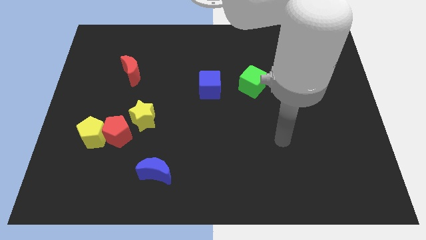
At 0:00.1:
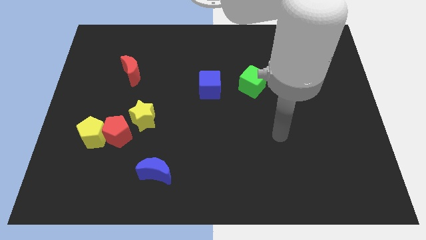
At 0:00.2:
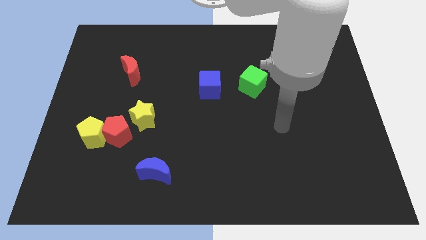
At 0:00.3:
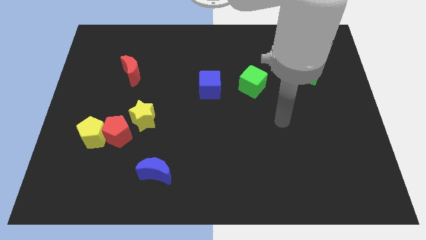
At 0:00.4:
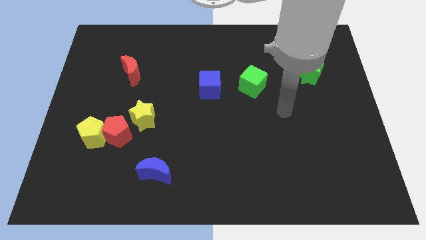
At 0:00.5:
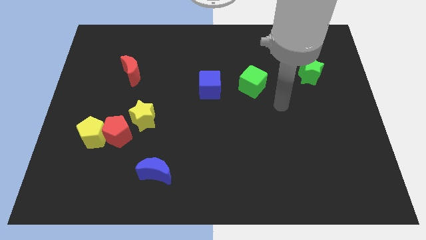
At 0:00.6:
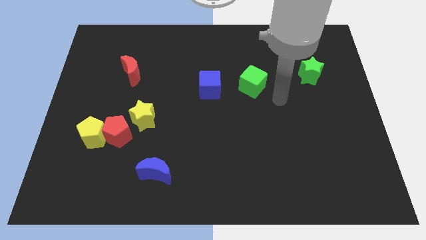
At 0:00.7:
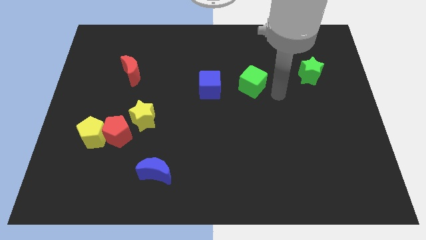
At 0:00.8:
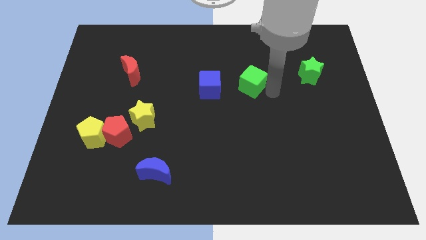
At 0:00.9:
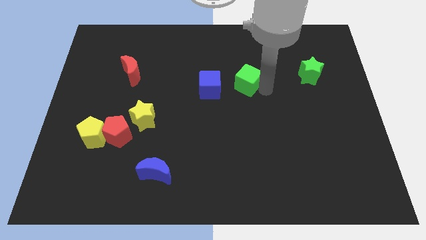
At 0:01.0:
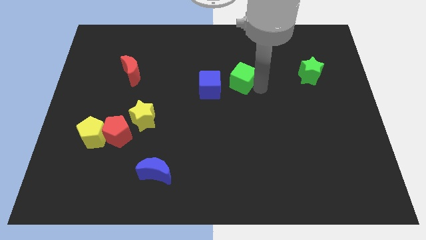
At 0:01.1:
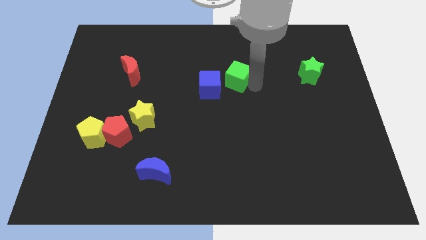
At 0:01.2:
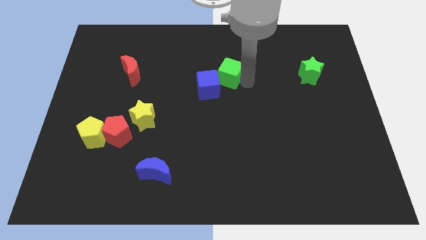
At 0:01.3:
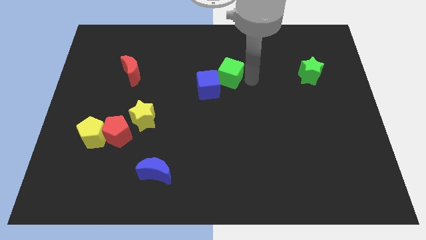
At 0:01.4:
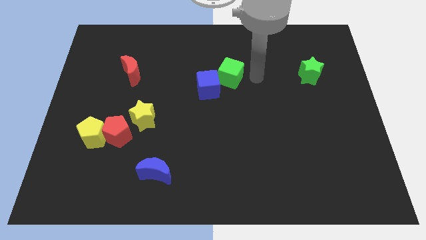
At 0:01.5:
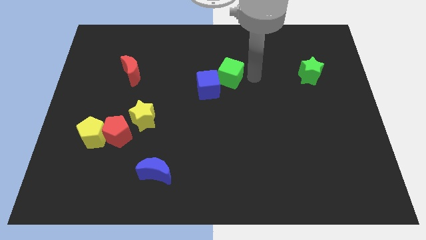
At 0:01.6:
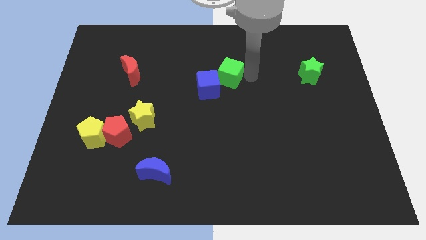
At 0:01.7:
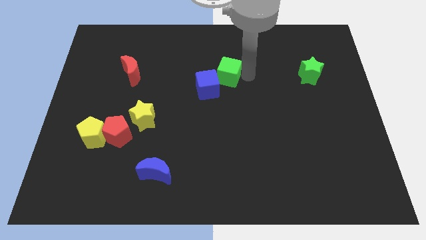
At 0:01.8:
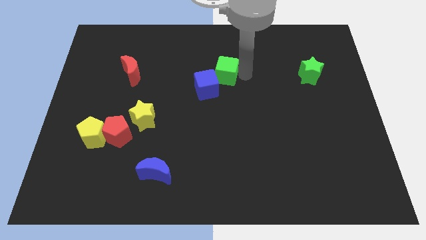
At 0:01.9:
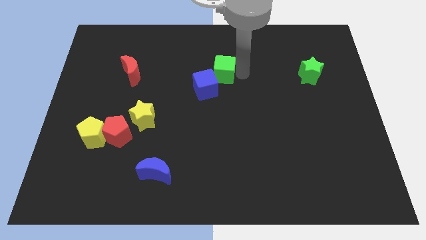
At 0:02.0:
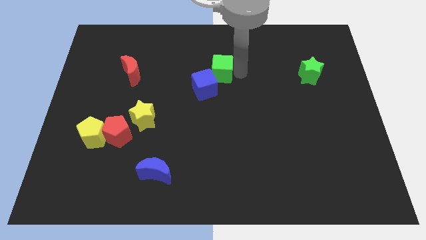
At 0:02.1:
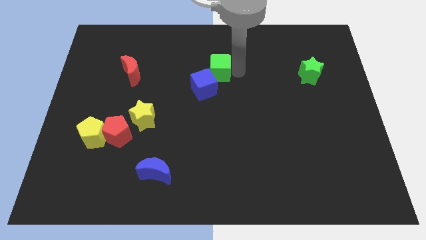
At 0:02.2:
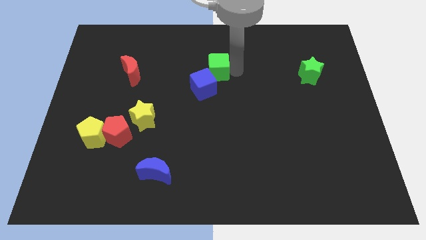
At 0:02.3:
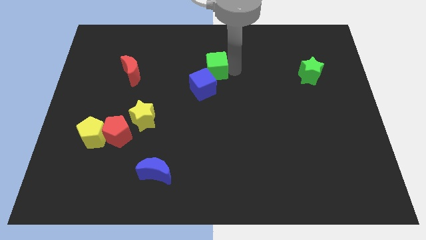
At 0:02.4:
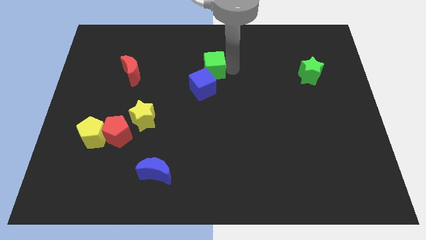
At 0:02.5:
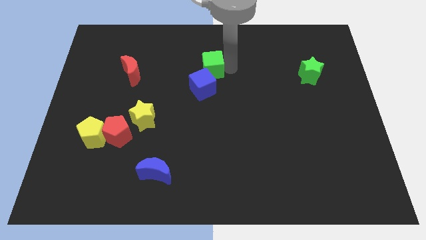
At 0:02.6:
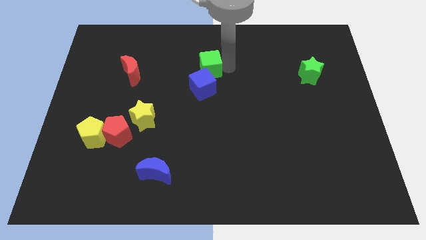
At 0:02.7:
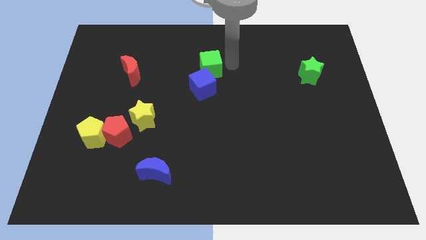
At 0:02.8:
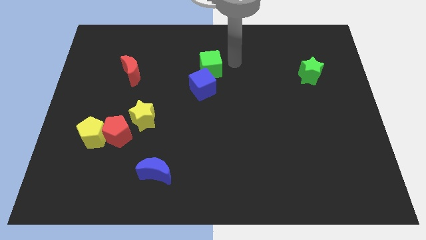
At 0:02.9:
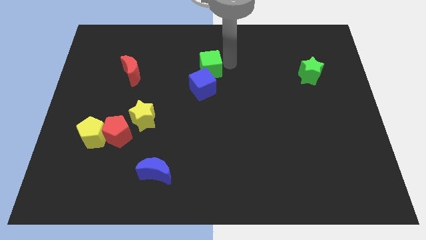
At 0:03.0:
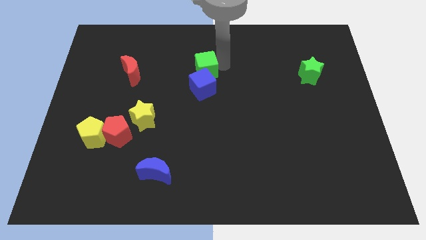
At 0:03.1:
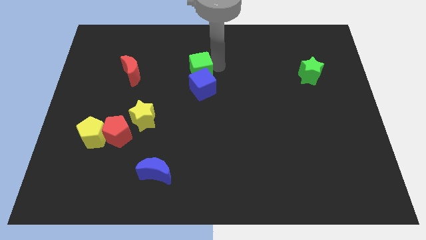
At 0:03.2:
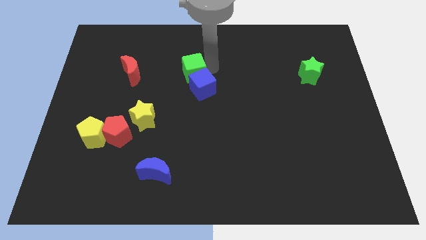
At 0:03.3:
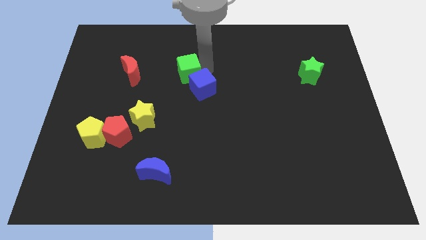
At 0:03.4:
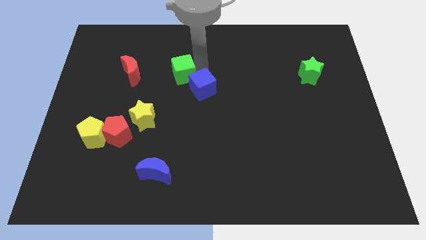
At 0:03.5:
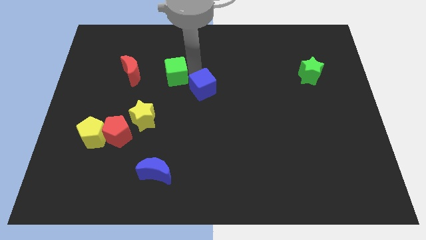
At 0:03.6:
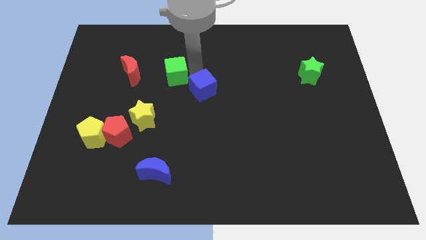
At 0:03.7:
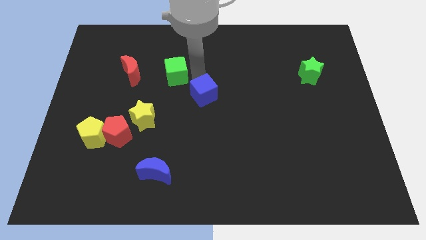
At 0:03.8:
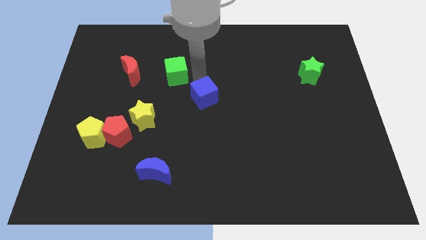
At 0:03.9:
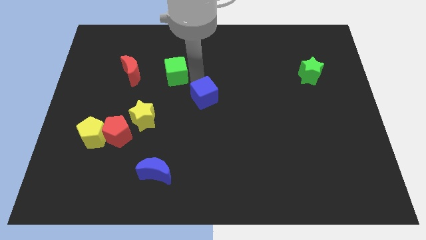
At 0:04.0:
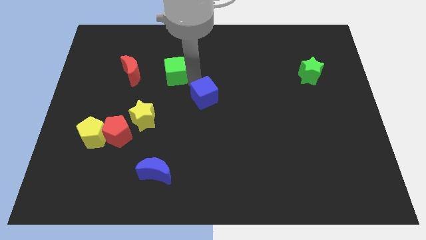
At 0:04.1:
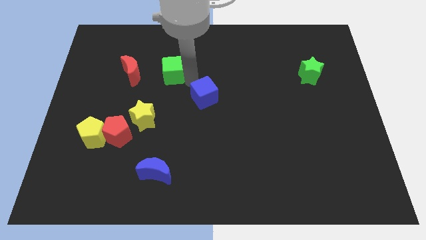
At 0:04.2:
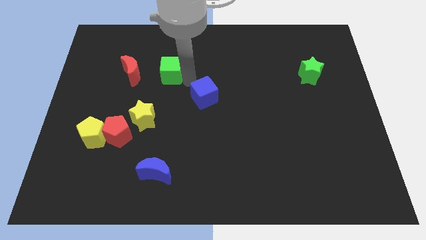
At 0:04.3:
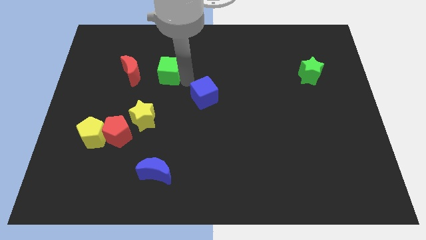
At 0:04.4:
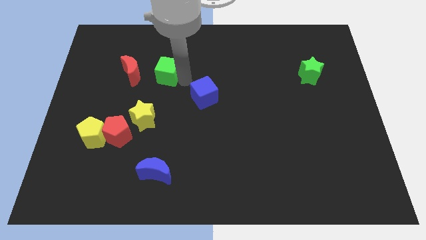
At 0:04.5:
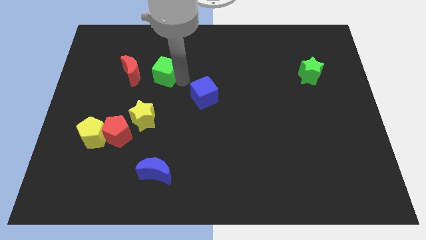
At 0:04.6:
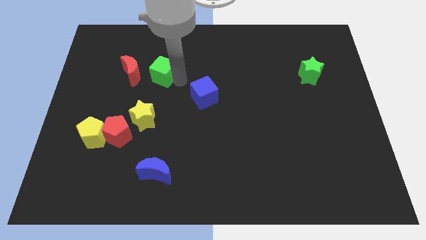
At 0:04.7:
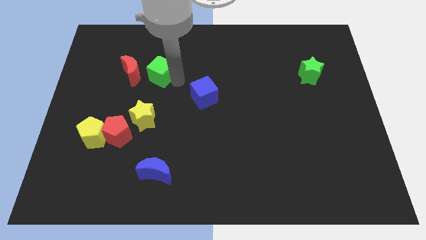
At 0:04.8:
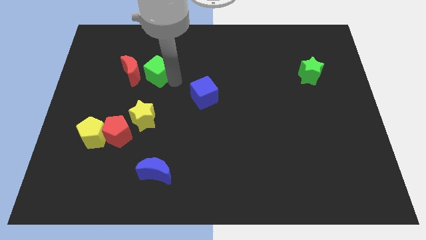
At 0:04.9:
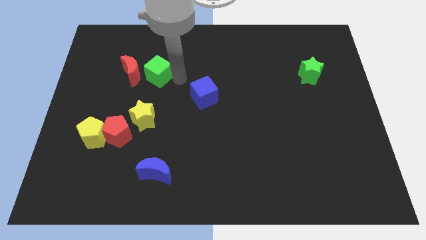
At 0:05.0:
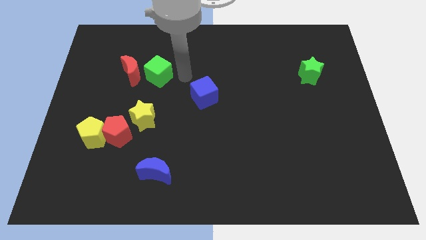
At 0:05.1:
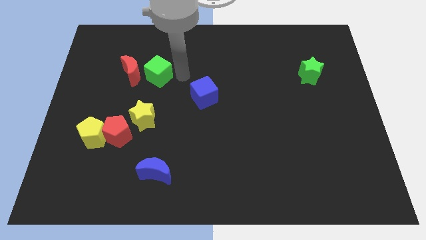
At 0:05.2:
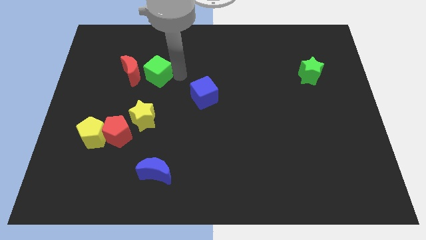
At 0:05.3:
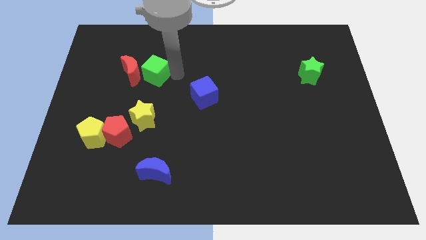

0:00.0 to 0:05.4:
push the green cube to the red moon

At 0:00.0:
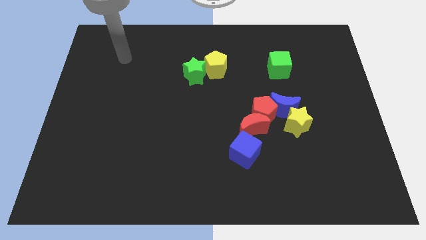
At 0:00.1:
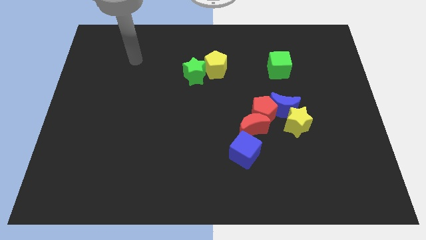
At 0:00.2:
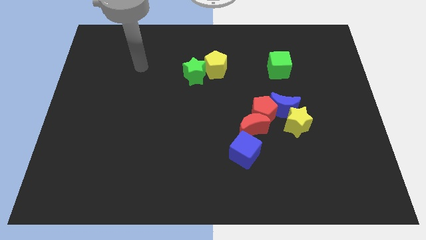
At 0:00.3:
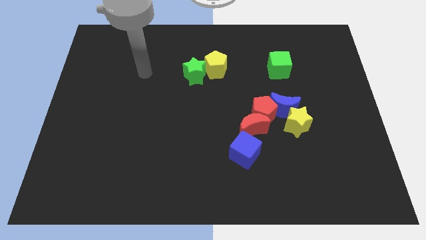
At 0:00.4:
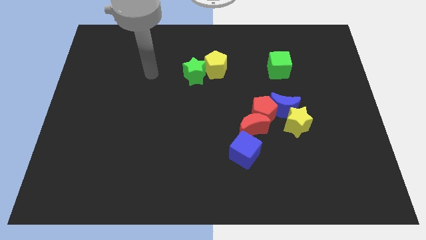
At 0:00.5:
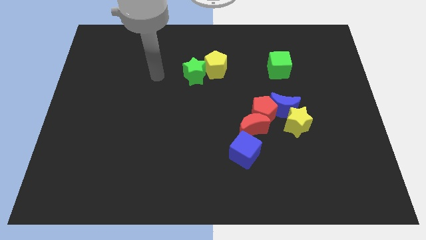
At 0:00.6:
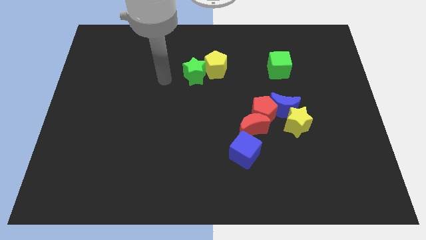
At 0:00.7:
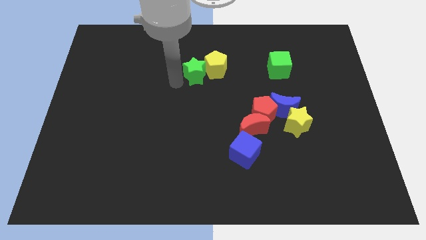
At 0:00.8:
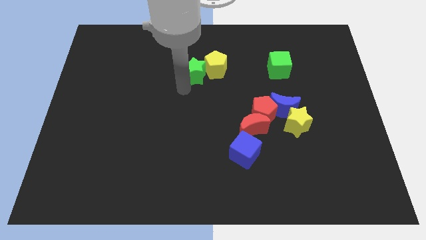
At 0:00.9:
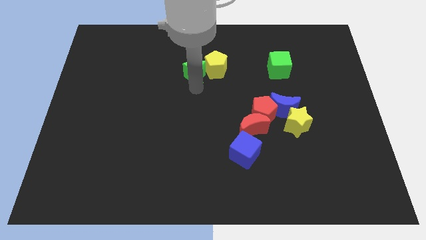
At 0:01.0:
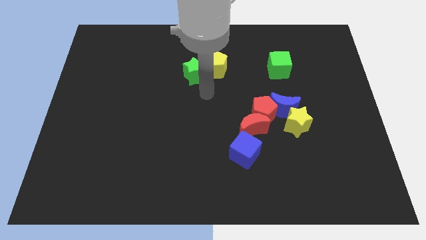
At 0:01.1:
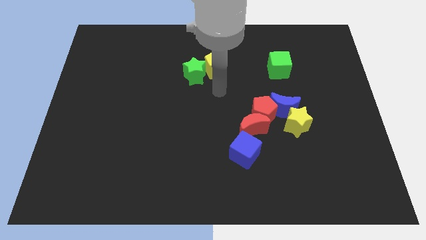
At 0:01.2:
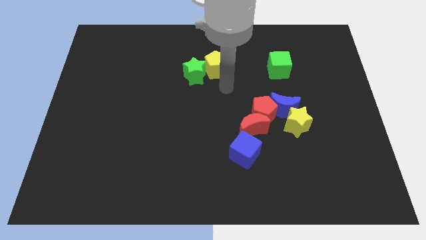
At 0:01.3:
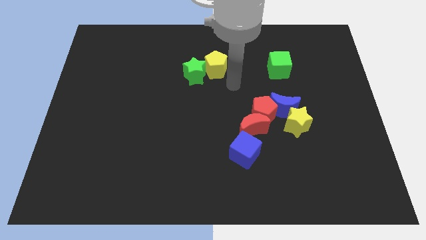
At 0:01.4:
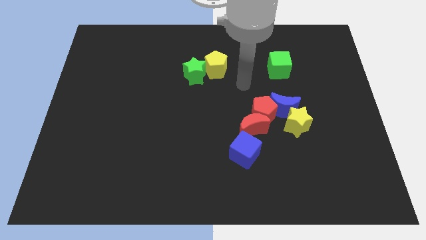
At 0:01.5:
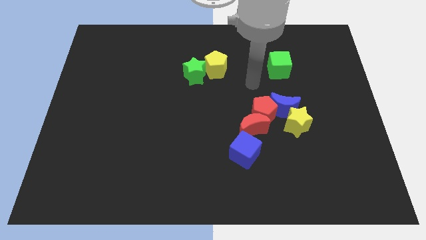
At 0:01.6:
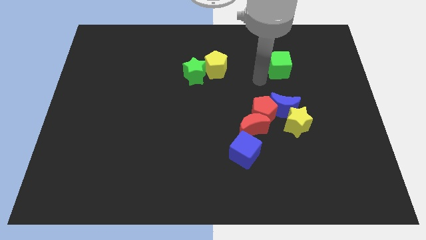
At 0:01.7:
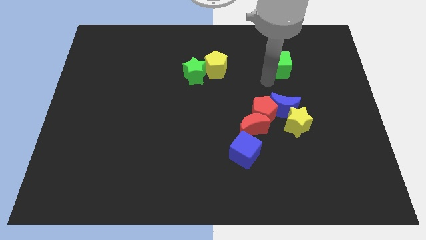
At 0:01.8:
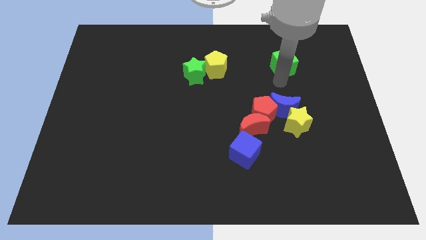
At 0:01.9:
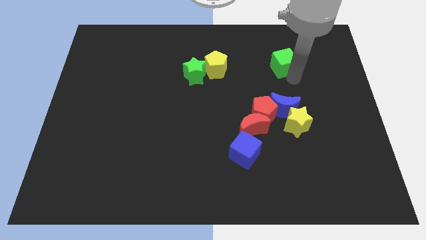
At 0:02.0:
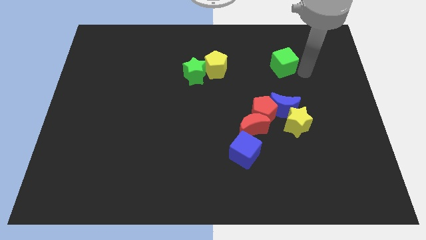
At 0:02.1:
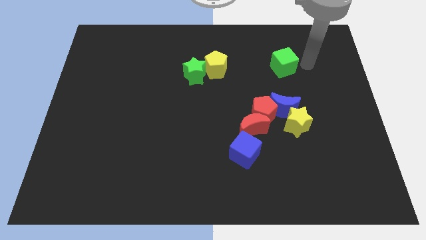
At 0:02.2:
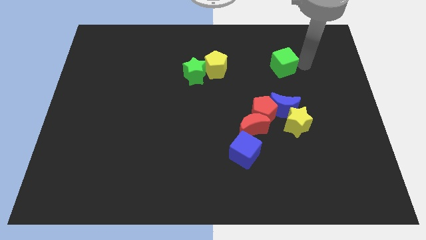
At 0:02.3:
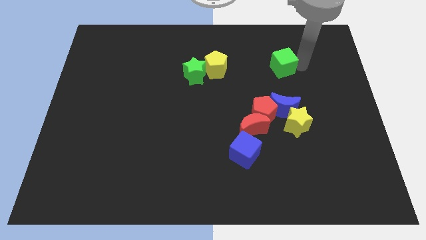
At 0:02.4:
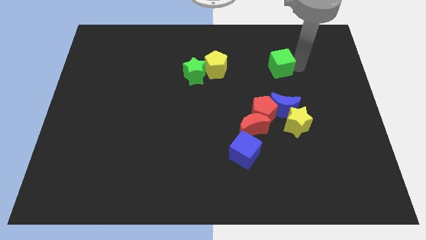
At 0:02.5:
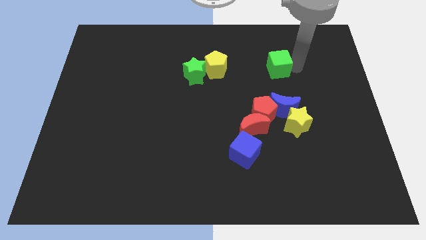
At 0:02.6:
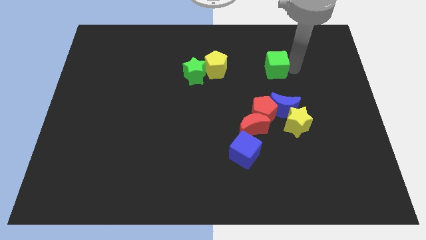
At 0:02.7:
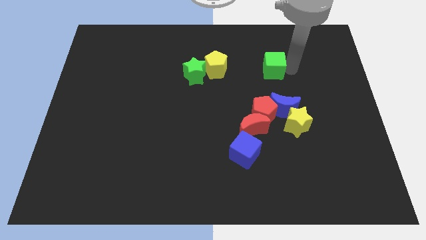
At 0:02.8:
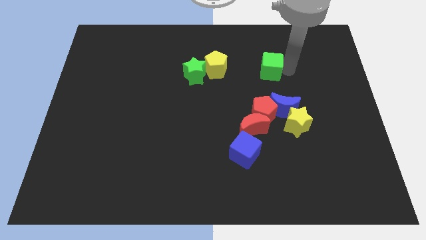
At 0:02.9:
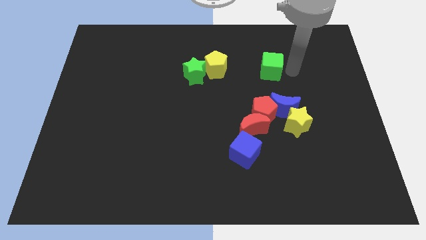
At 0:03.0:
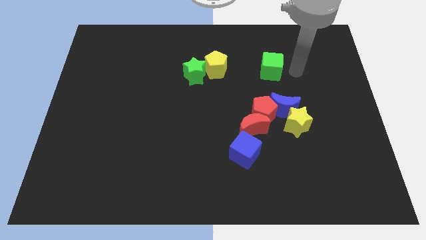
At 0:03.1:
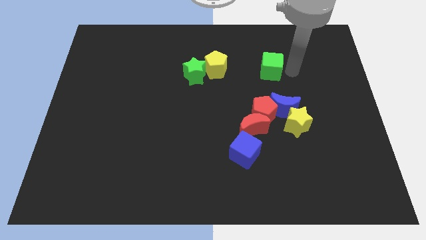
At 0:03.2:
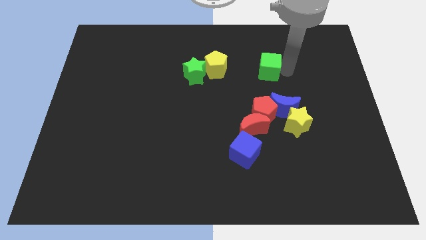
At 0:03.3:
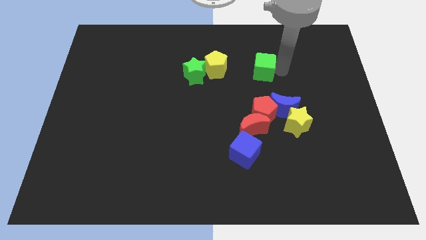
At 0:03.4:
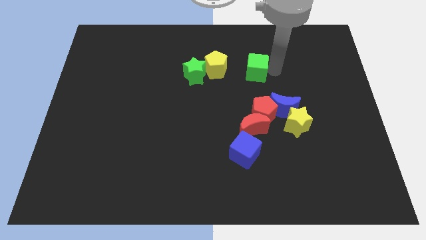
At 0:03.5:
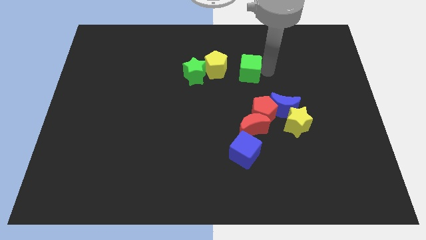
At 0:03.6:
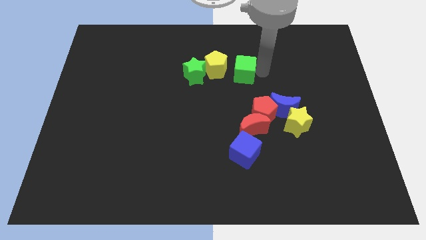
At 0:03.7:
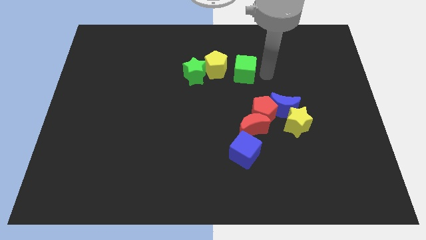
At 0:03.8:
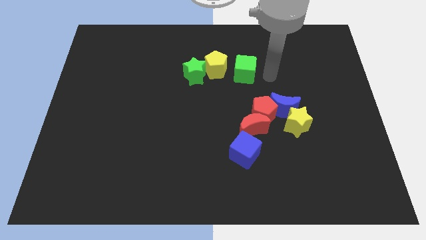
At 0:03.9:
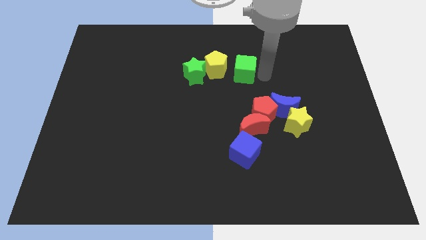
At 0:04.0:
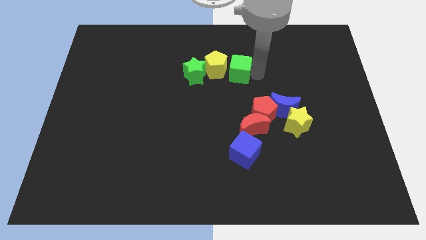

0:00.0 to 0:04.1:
push the green cube to the yellow pentagon
